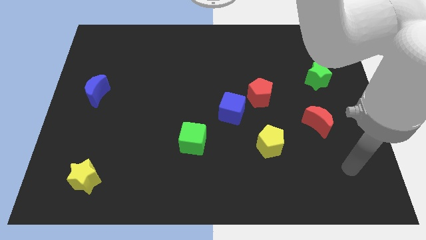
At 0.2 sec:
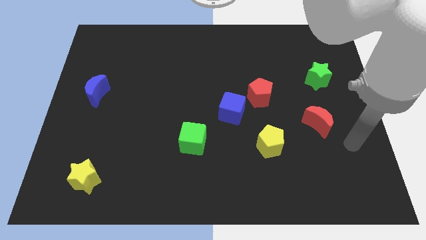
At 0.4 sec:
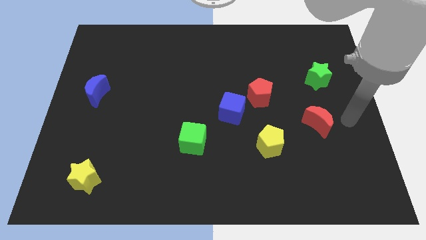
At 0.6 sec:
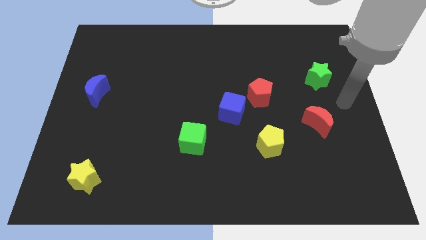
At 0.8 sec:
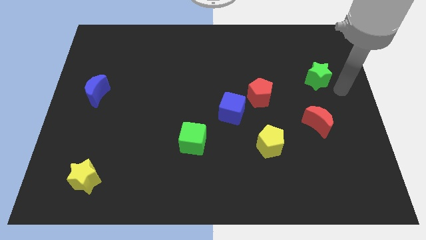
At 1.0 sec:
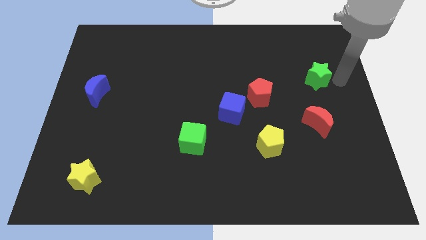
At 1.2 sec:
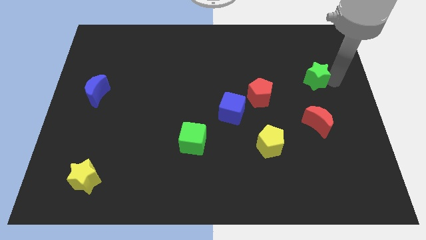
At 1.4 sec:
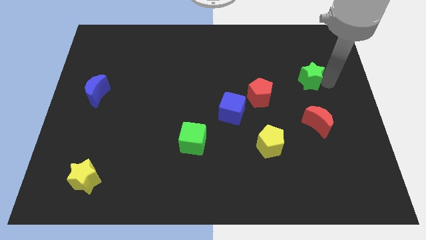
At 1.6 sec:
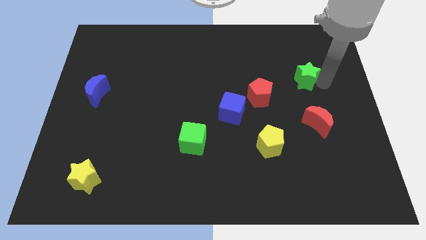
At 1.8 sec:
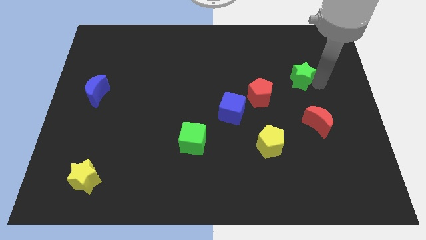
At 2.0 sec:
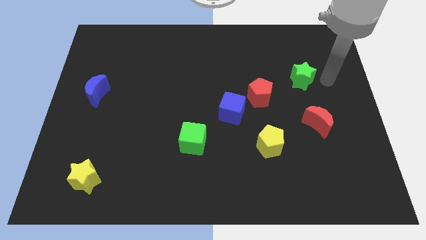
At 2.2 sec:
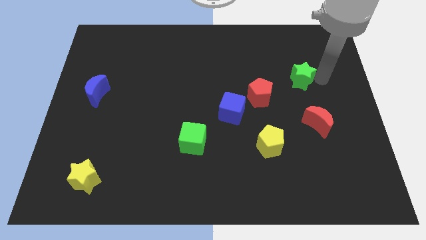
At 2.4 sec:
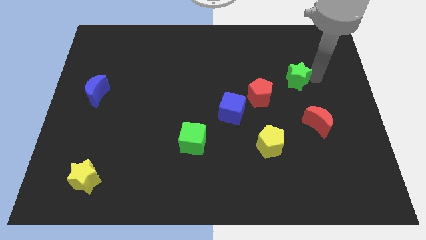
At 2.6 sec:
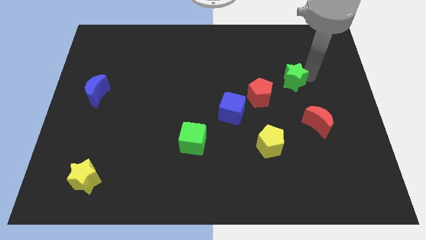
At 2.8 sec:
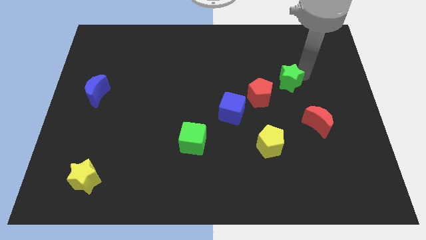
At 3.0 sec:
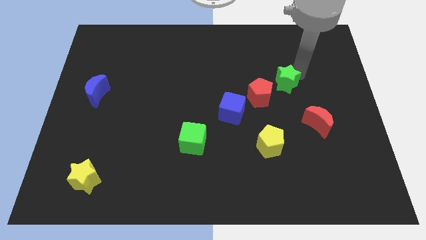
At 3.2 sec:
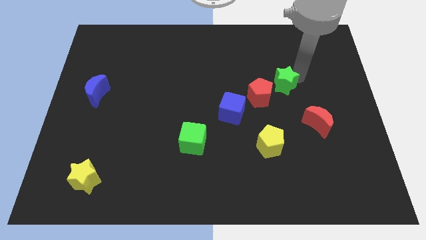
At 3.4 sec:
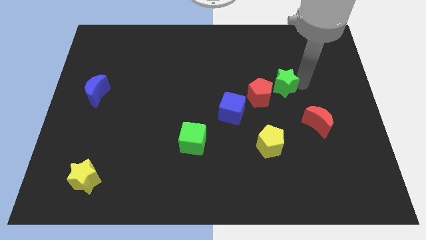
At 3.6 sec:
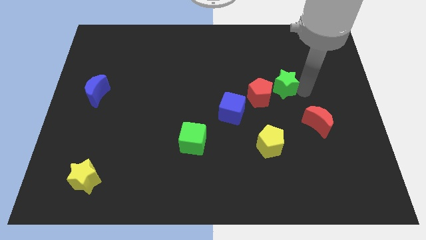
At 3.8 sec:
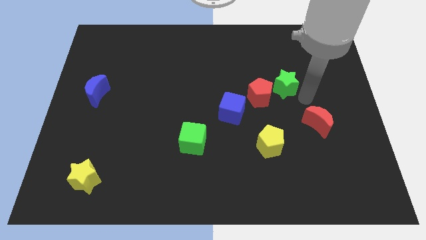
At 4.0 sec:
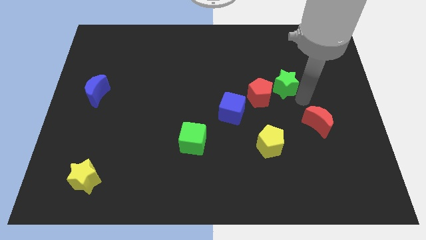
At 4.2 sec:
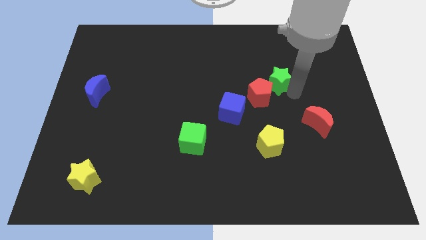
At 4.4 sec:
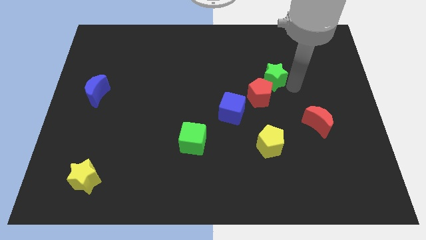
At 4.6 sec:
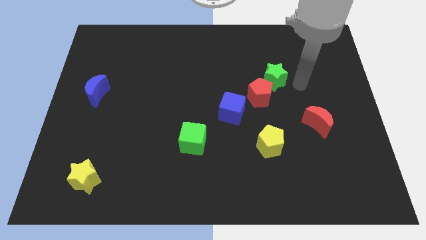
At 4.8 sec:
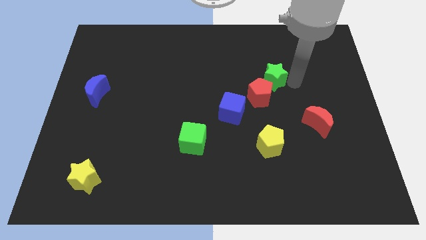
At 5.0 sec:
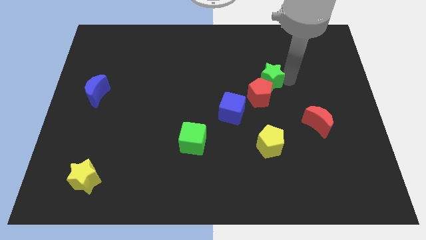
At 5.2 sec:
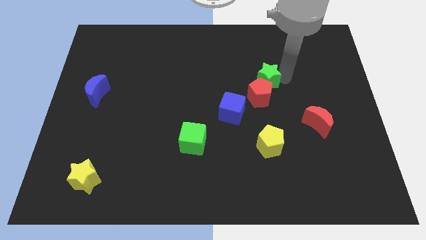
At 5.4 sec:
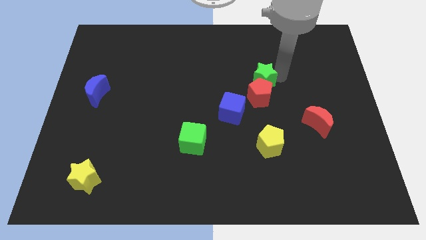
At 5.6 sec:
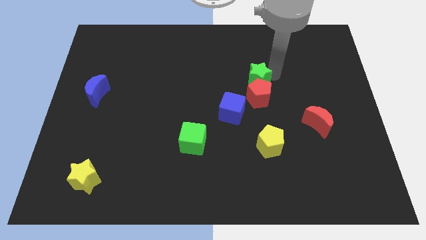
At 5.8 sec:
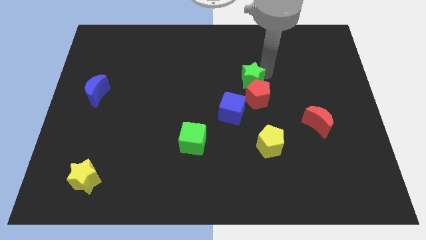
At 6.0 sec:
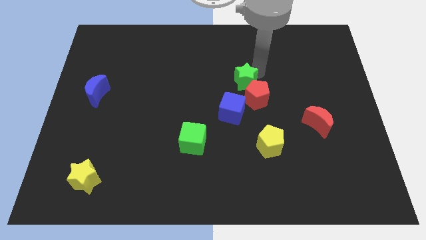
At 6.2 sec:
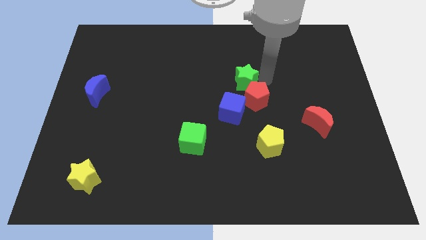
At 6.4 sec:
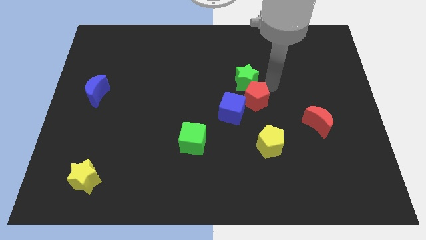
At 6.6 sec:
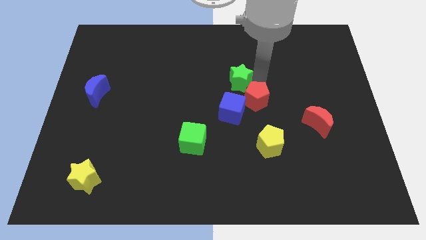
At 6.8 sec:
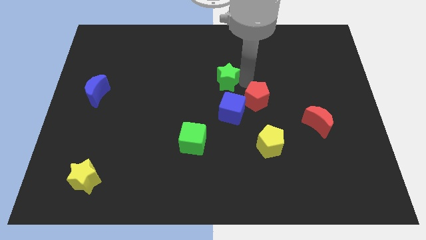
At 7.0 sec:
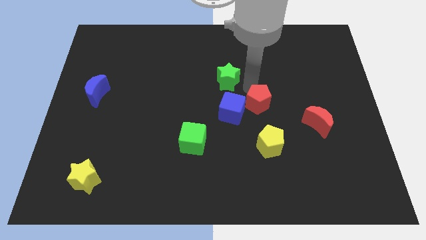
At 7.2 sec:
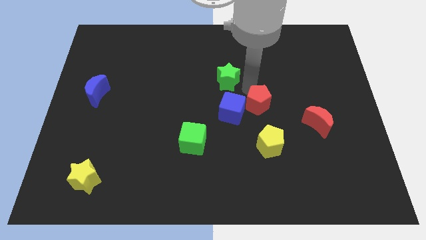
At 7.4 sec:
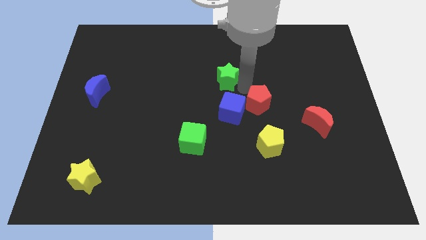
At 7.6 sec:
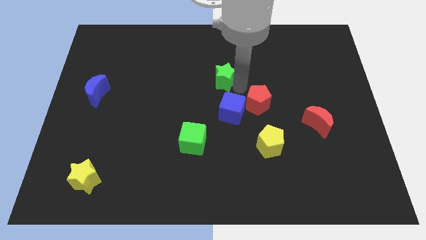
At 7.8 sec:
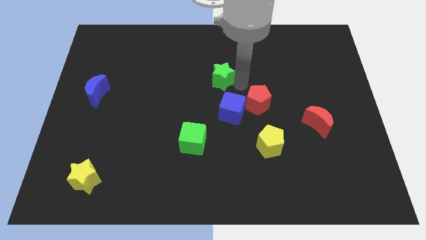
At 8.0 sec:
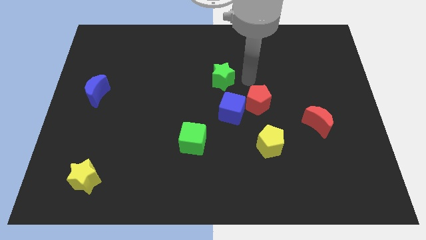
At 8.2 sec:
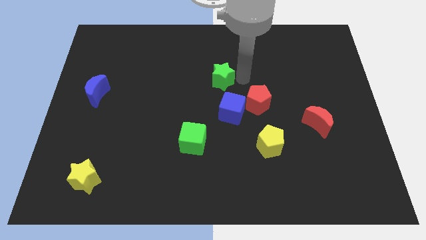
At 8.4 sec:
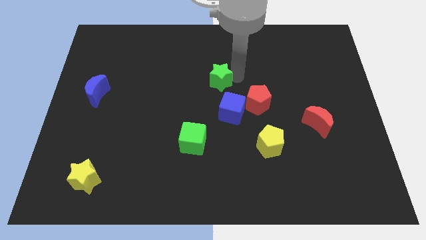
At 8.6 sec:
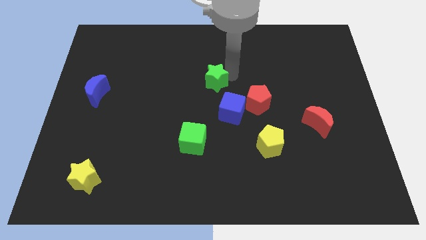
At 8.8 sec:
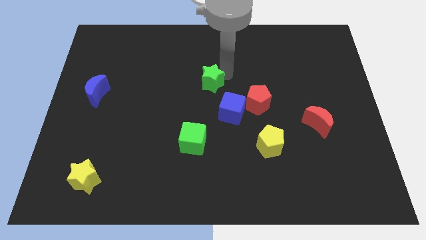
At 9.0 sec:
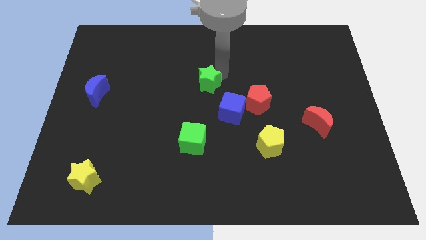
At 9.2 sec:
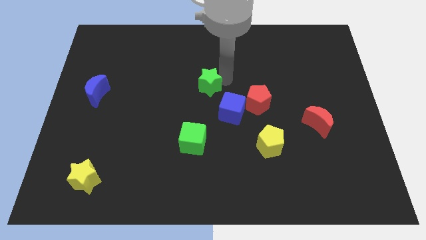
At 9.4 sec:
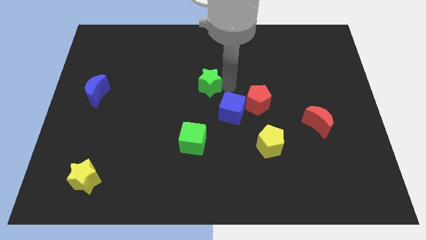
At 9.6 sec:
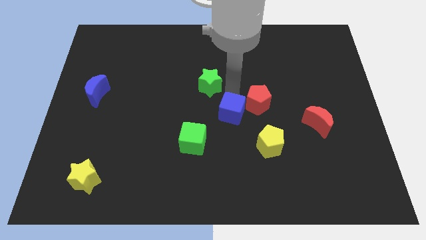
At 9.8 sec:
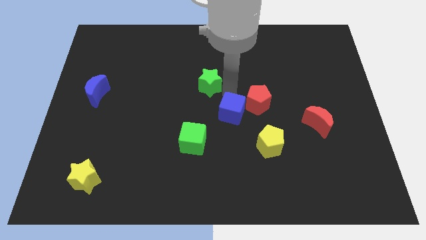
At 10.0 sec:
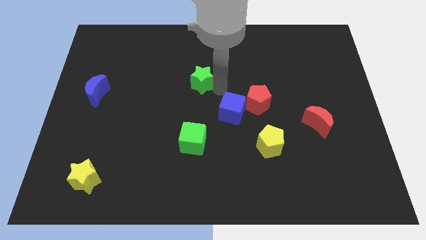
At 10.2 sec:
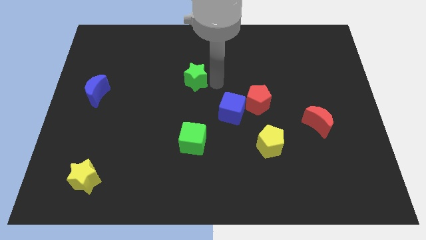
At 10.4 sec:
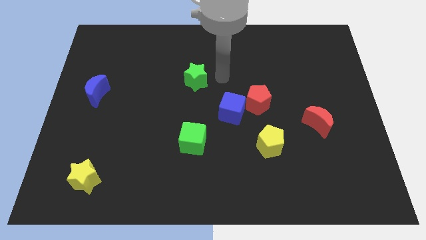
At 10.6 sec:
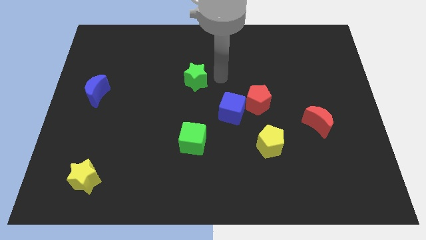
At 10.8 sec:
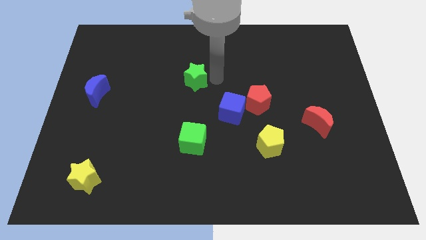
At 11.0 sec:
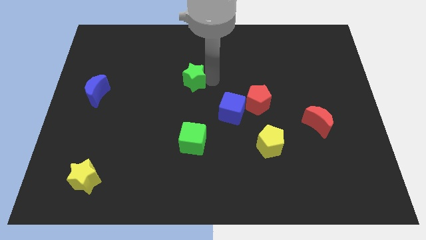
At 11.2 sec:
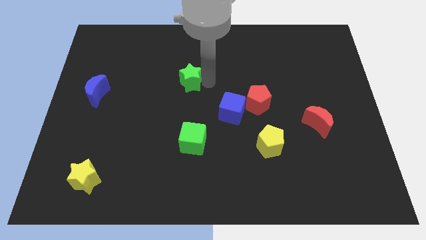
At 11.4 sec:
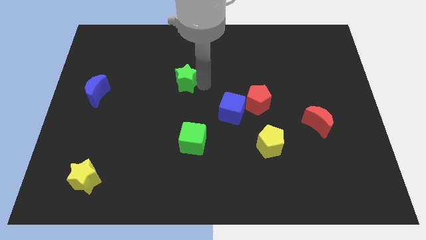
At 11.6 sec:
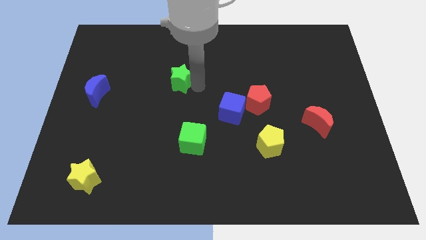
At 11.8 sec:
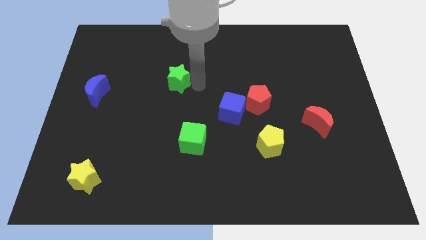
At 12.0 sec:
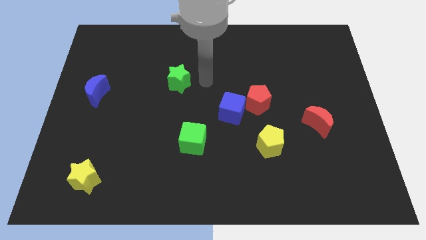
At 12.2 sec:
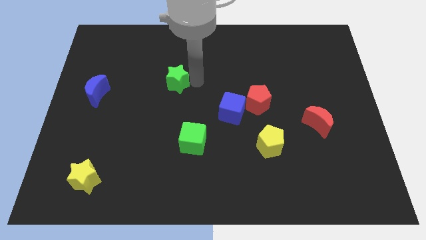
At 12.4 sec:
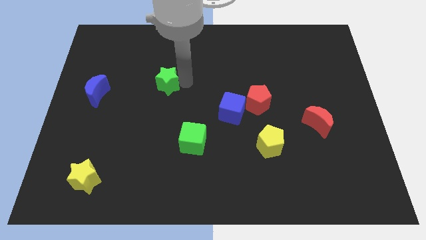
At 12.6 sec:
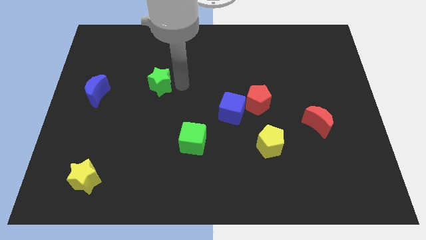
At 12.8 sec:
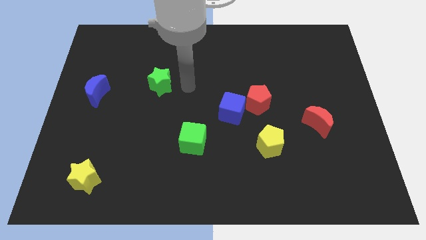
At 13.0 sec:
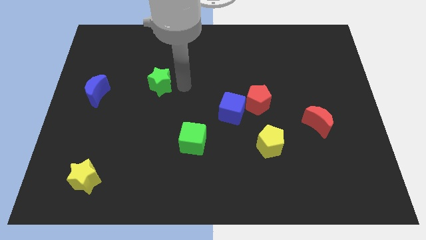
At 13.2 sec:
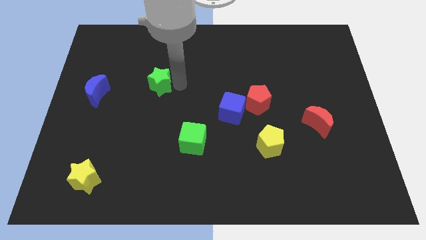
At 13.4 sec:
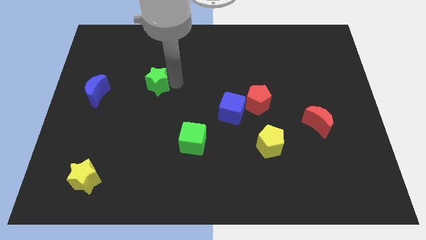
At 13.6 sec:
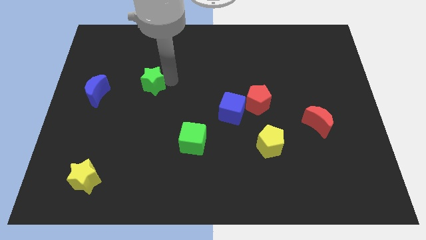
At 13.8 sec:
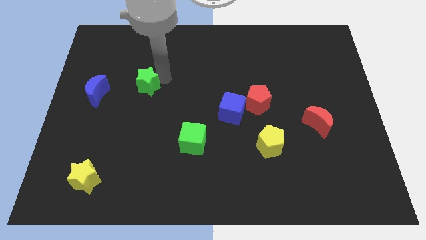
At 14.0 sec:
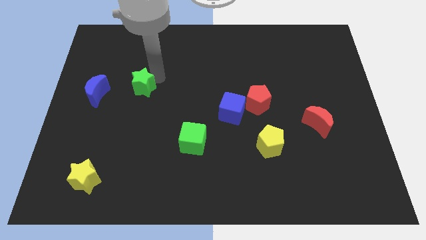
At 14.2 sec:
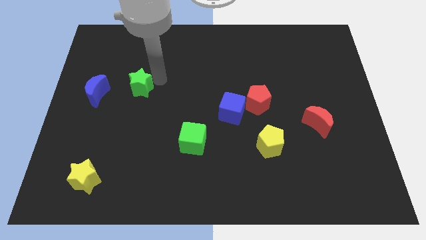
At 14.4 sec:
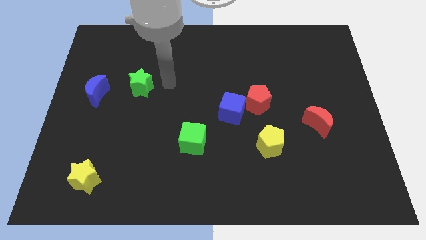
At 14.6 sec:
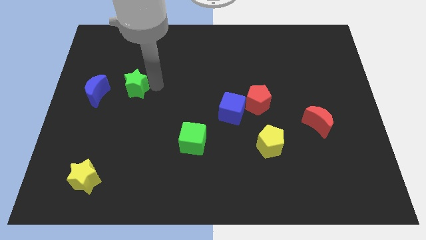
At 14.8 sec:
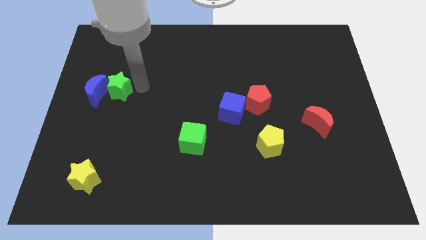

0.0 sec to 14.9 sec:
put the green star to the blue moon
